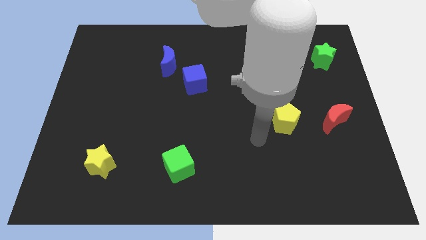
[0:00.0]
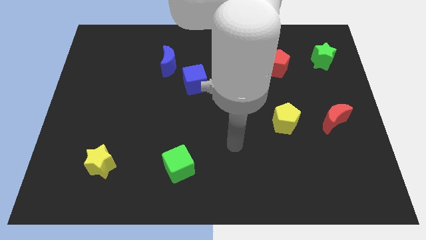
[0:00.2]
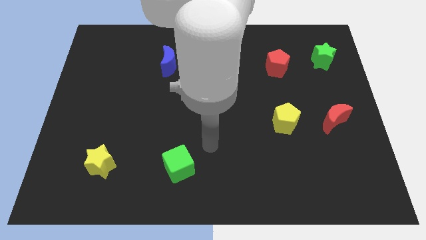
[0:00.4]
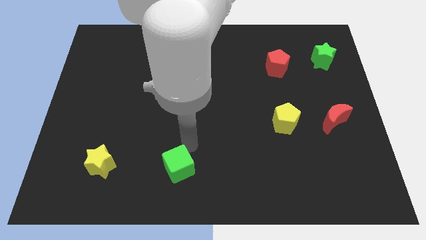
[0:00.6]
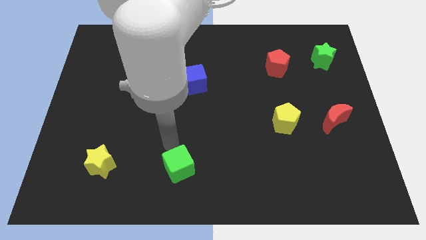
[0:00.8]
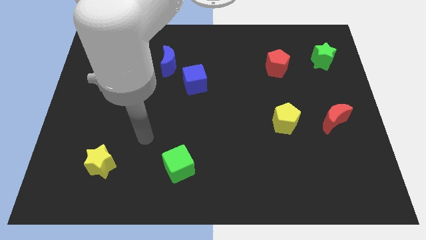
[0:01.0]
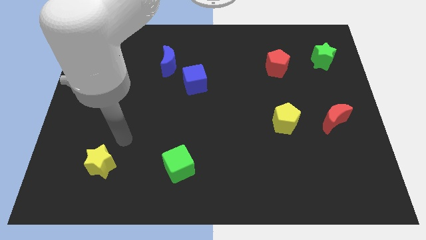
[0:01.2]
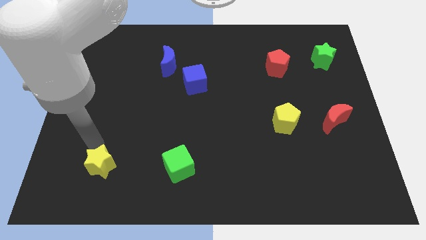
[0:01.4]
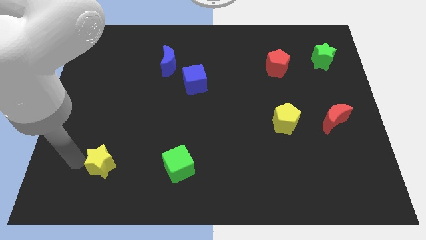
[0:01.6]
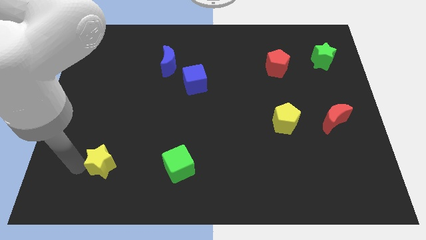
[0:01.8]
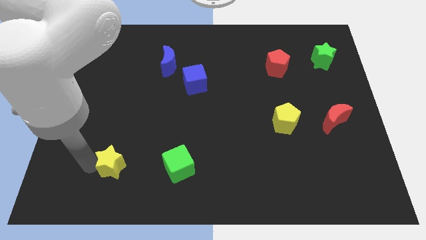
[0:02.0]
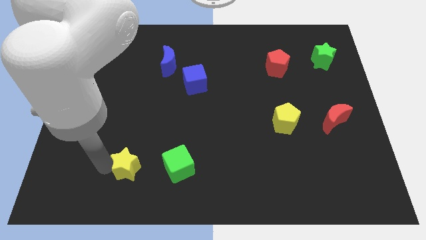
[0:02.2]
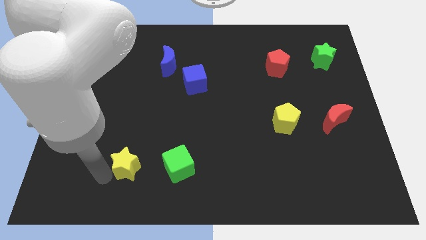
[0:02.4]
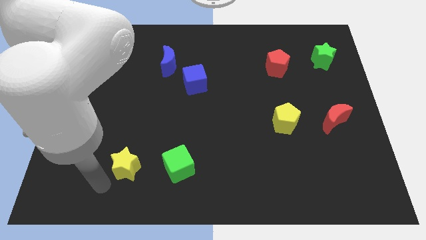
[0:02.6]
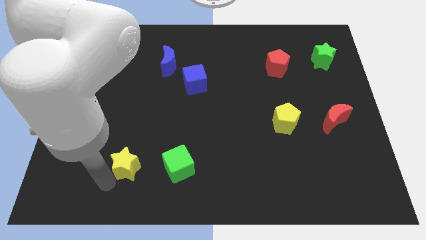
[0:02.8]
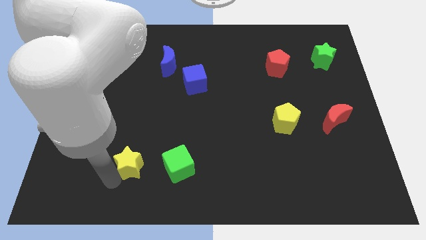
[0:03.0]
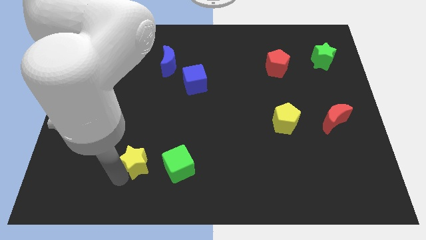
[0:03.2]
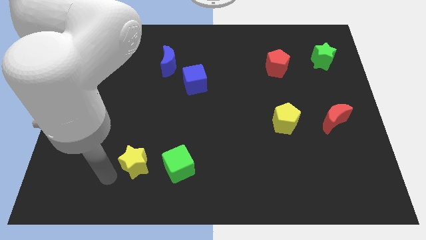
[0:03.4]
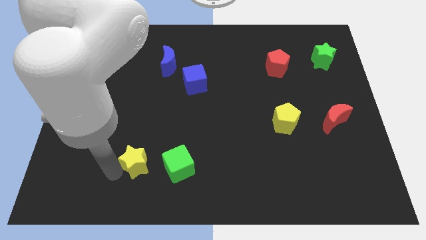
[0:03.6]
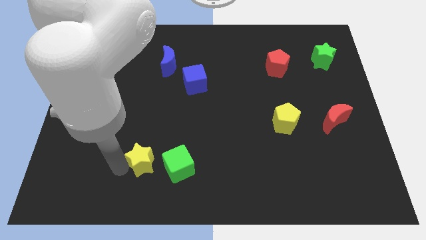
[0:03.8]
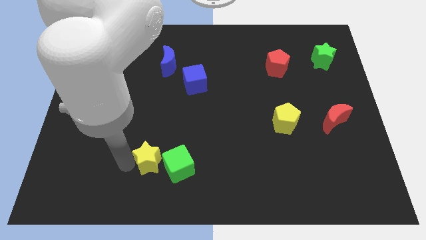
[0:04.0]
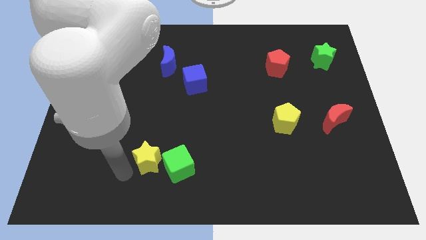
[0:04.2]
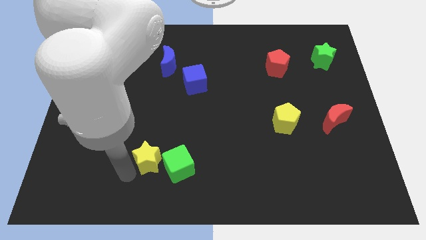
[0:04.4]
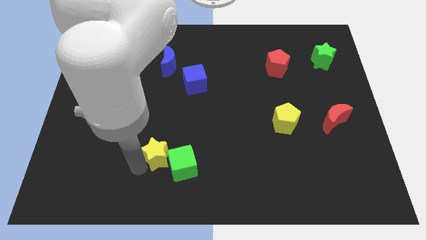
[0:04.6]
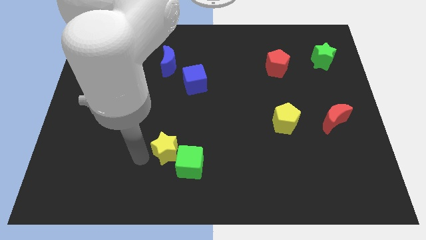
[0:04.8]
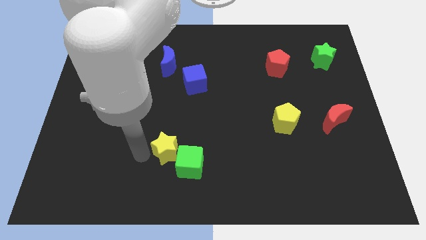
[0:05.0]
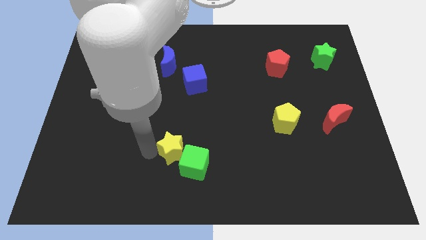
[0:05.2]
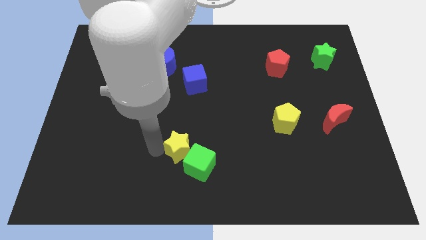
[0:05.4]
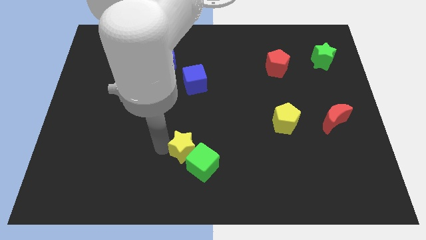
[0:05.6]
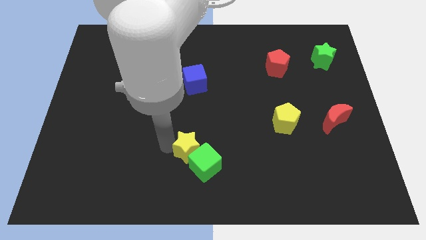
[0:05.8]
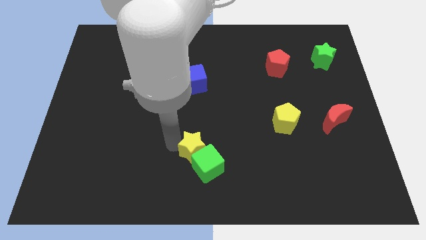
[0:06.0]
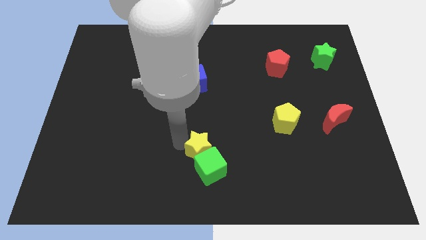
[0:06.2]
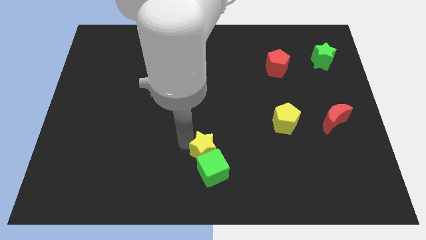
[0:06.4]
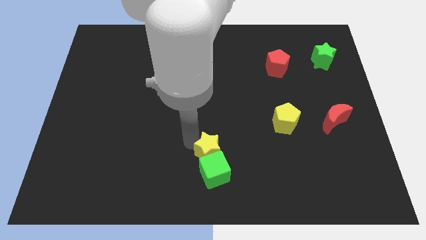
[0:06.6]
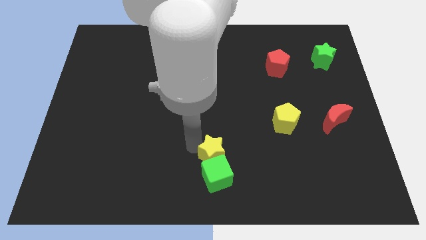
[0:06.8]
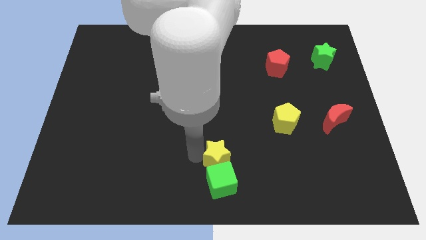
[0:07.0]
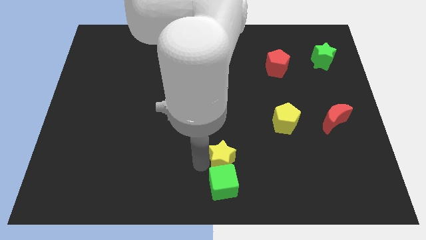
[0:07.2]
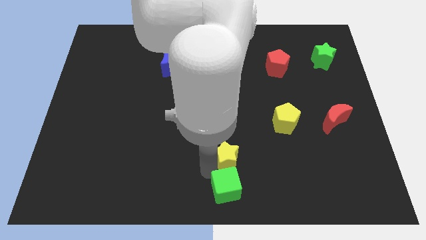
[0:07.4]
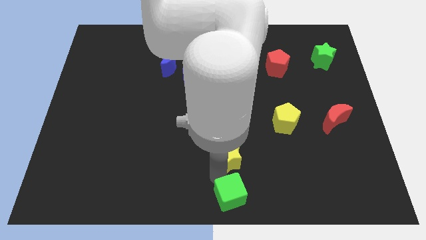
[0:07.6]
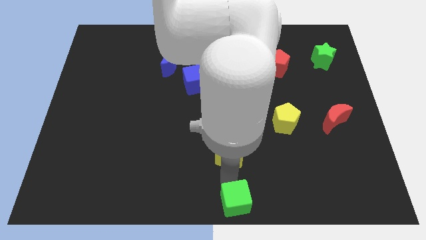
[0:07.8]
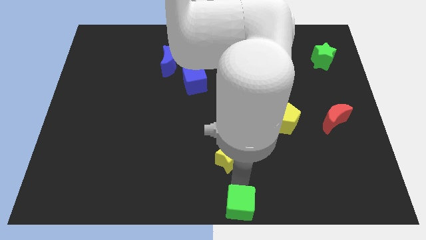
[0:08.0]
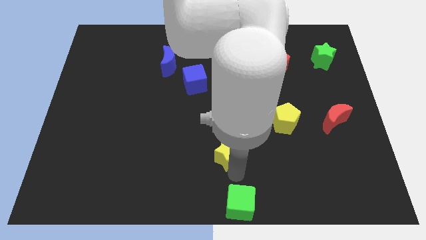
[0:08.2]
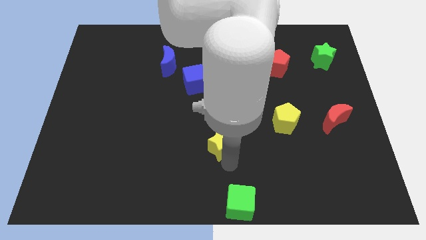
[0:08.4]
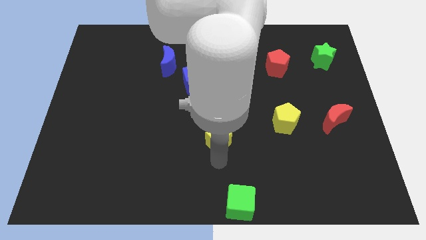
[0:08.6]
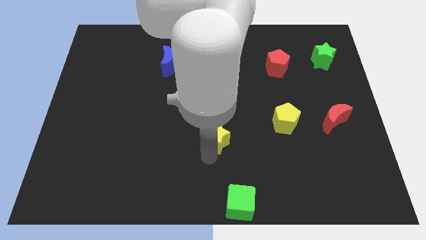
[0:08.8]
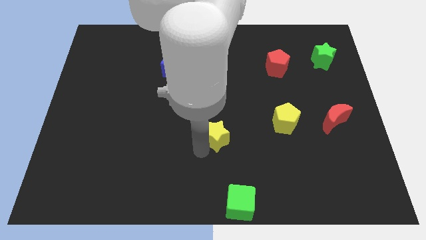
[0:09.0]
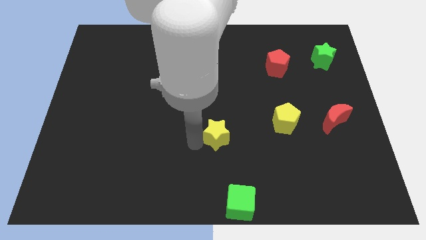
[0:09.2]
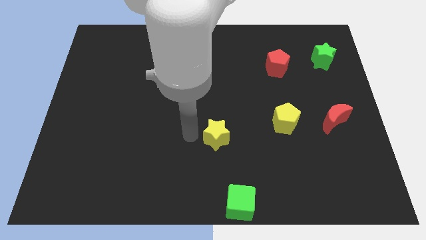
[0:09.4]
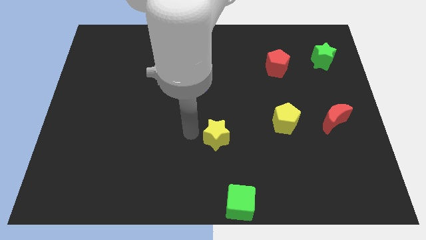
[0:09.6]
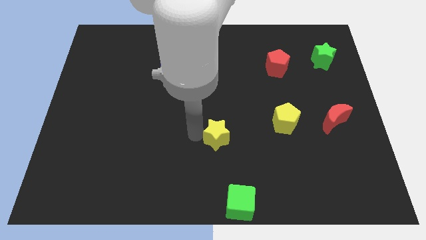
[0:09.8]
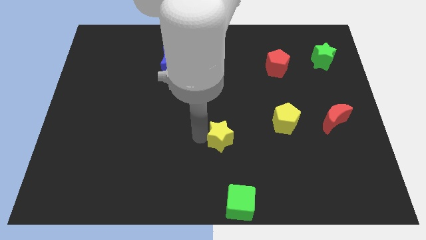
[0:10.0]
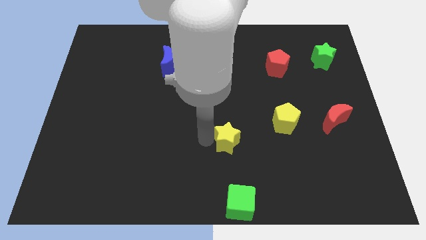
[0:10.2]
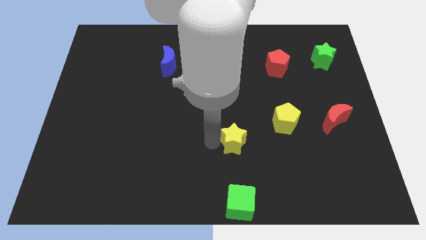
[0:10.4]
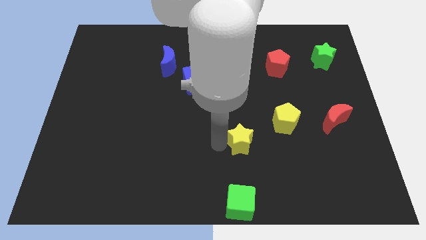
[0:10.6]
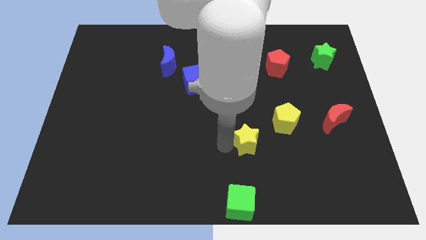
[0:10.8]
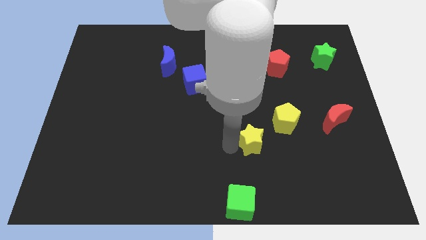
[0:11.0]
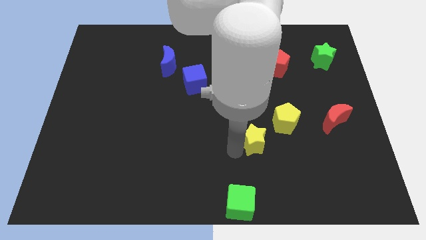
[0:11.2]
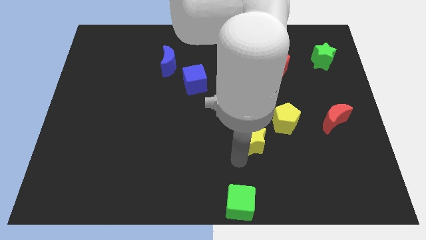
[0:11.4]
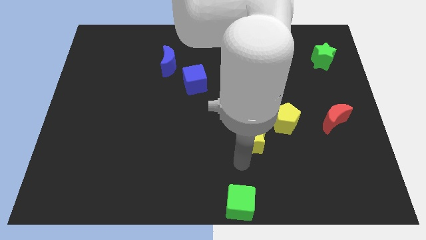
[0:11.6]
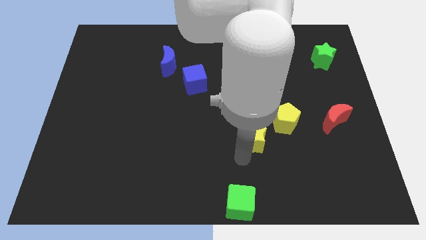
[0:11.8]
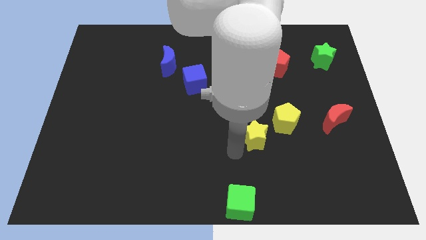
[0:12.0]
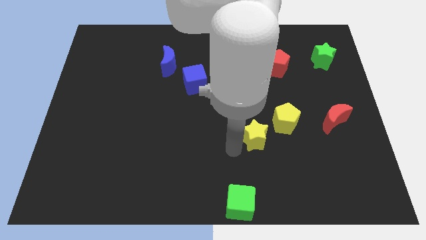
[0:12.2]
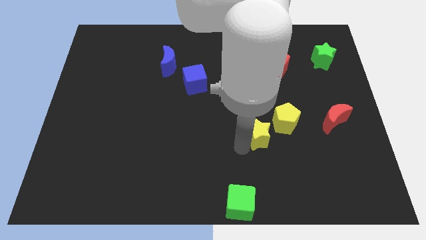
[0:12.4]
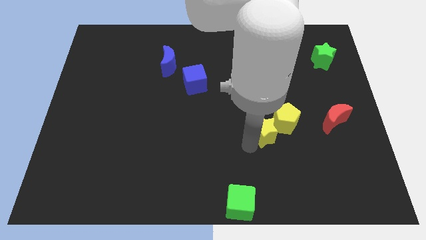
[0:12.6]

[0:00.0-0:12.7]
push the yellow star close to the yellow pentagon
